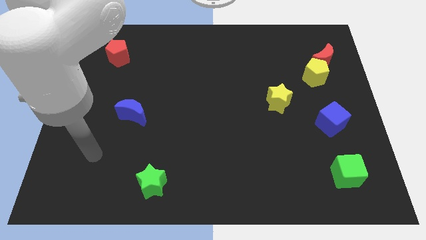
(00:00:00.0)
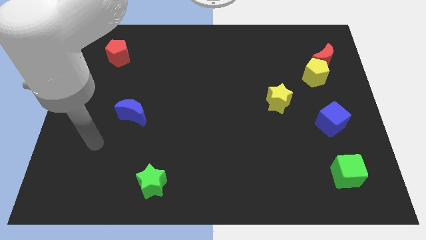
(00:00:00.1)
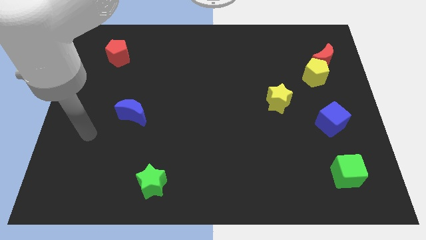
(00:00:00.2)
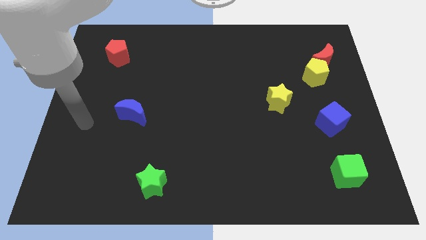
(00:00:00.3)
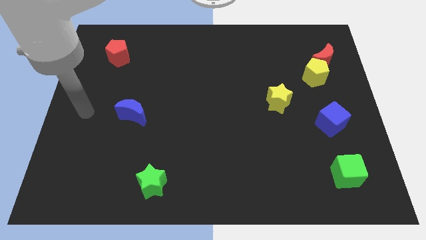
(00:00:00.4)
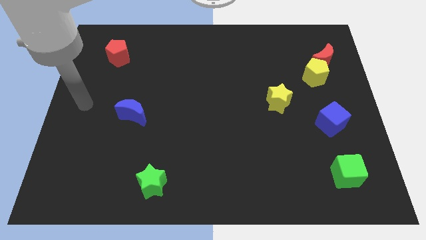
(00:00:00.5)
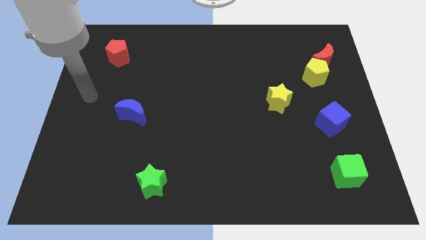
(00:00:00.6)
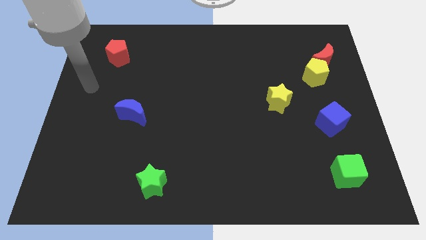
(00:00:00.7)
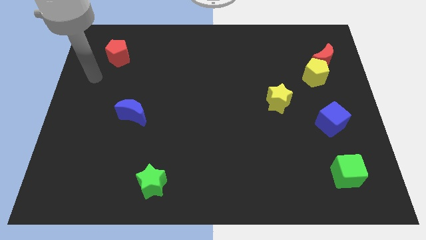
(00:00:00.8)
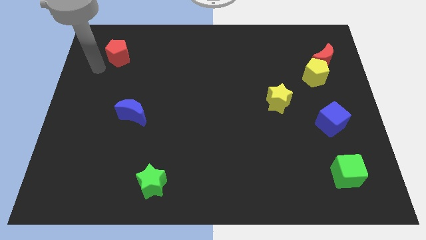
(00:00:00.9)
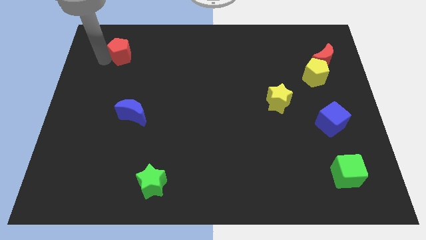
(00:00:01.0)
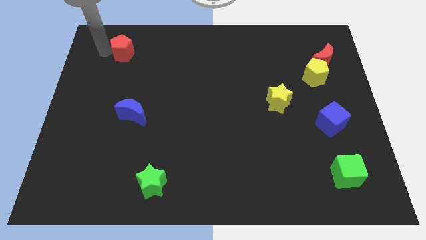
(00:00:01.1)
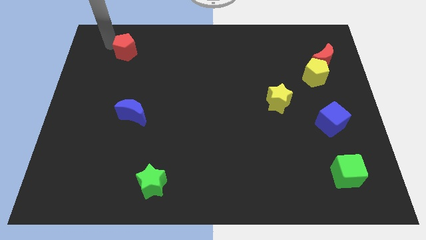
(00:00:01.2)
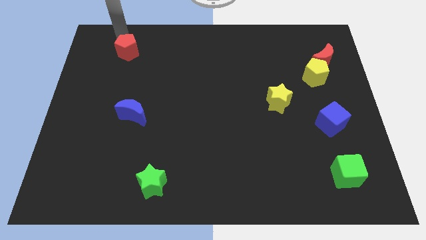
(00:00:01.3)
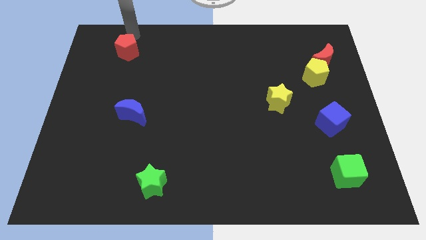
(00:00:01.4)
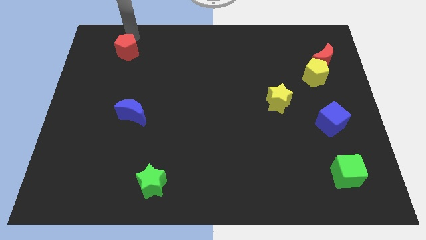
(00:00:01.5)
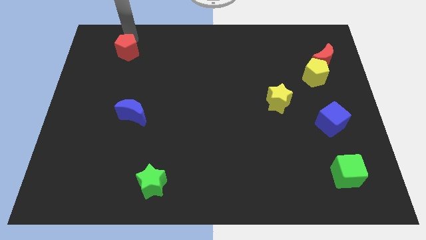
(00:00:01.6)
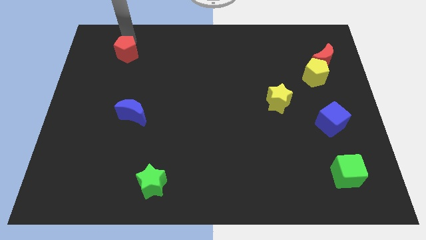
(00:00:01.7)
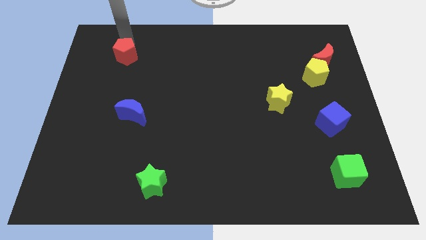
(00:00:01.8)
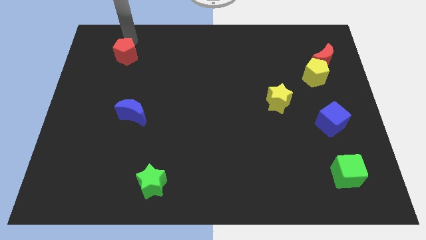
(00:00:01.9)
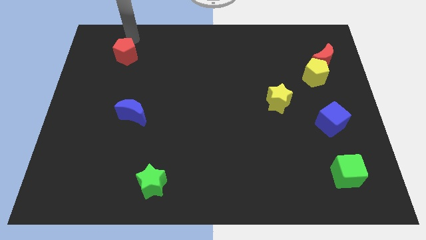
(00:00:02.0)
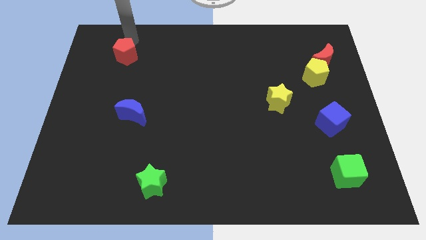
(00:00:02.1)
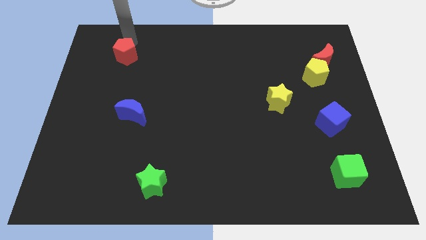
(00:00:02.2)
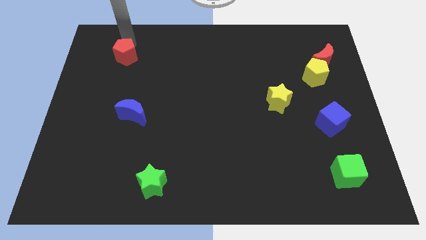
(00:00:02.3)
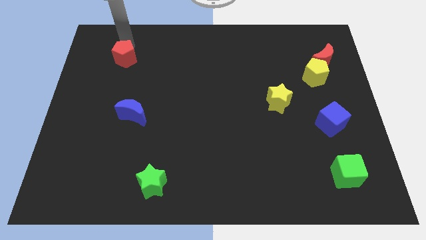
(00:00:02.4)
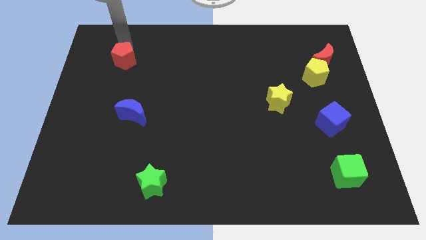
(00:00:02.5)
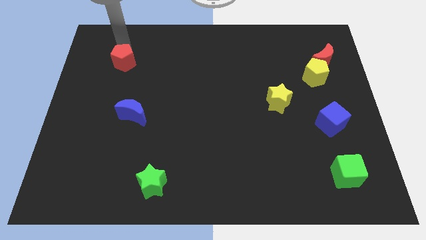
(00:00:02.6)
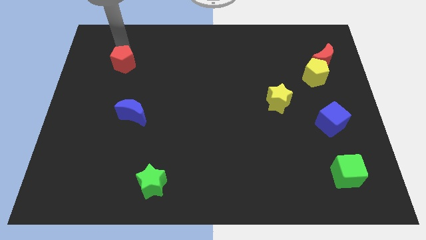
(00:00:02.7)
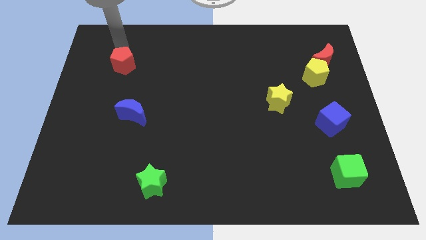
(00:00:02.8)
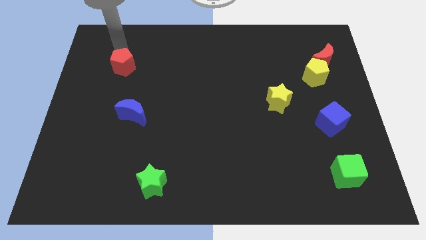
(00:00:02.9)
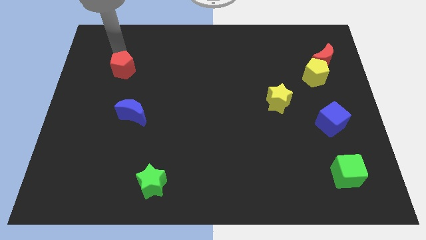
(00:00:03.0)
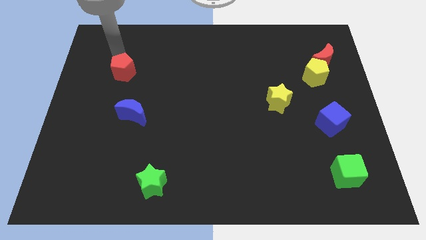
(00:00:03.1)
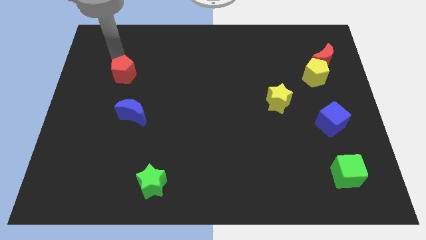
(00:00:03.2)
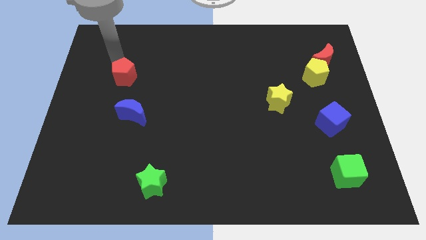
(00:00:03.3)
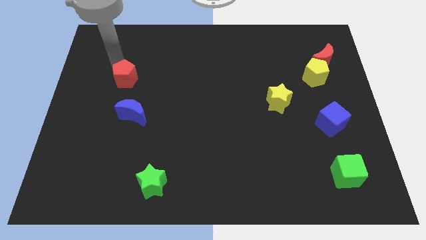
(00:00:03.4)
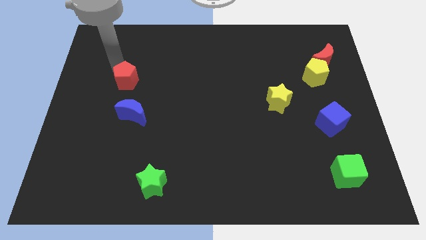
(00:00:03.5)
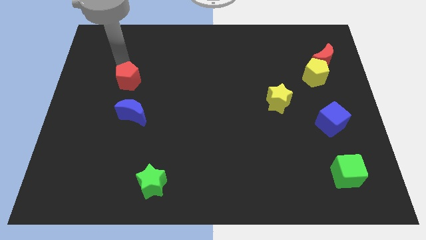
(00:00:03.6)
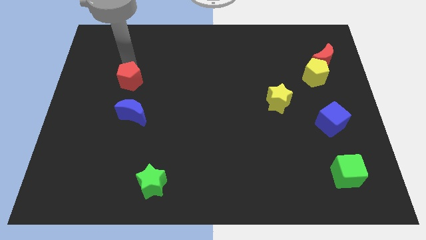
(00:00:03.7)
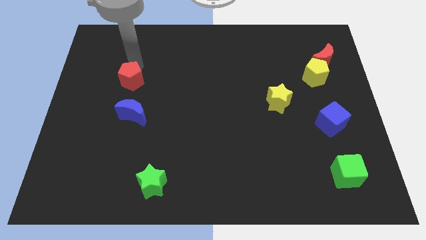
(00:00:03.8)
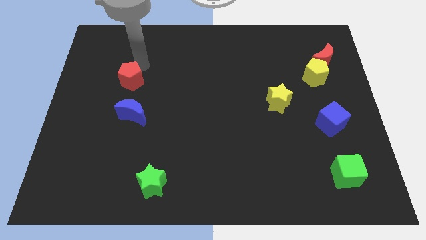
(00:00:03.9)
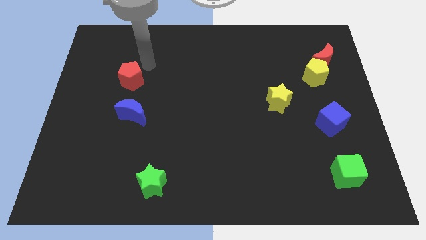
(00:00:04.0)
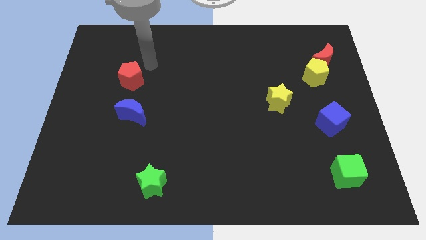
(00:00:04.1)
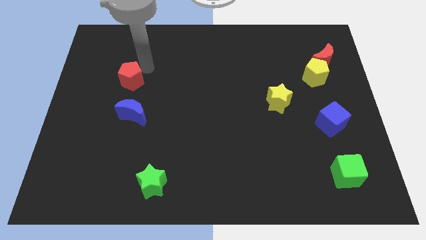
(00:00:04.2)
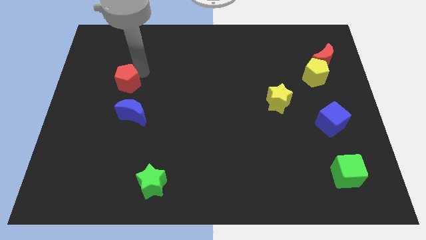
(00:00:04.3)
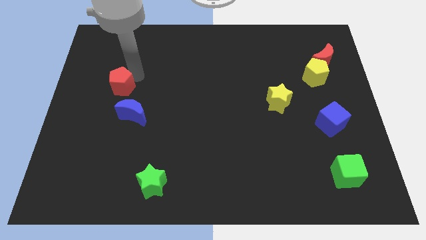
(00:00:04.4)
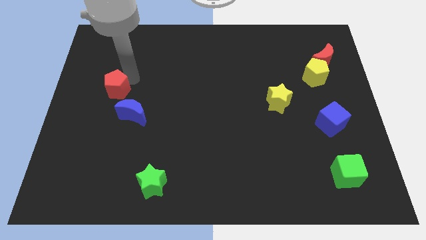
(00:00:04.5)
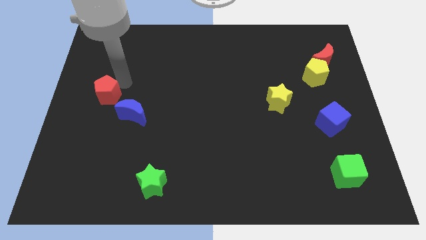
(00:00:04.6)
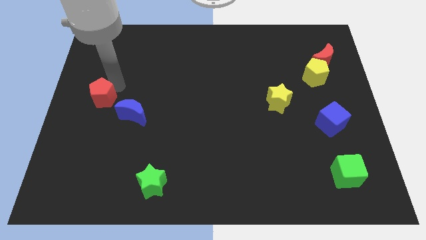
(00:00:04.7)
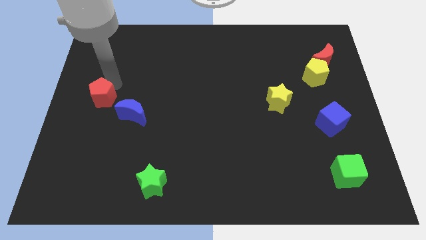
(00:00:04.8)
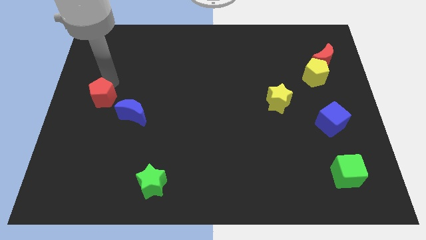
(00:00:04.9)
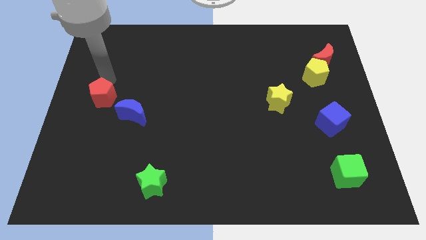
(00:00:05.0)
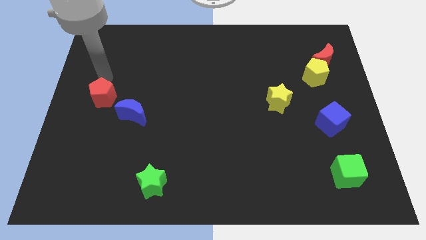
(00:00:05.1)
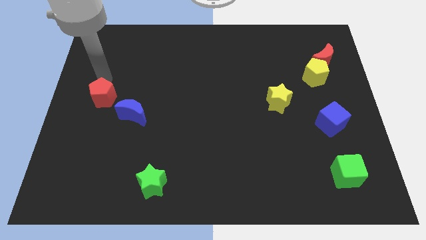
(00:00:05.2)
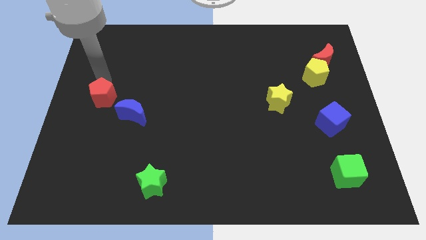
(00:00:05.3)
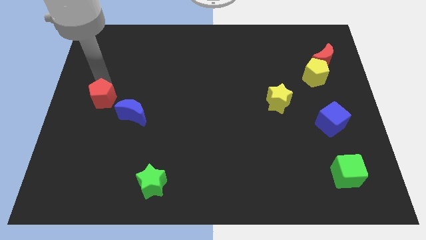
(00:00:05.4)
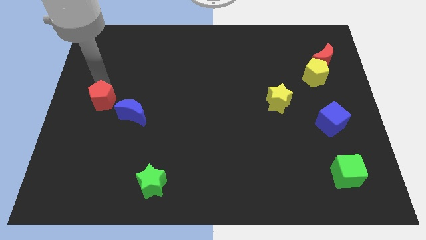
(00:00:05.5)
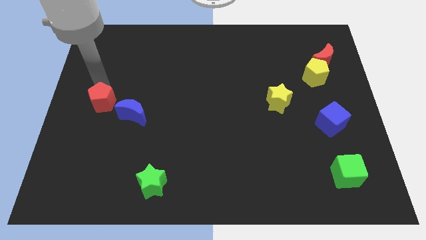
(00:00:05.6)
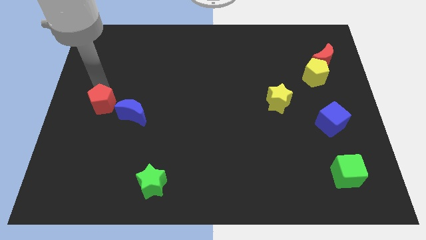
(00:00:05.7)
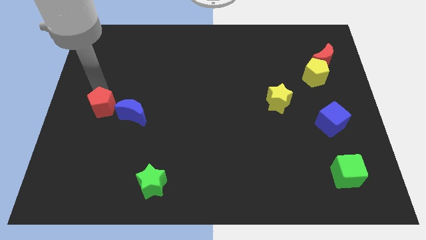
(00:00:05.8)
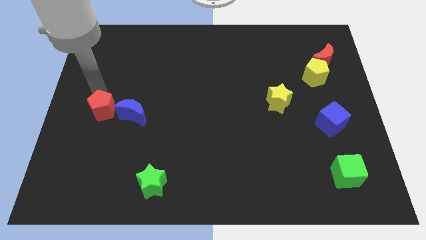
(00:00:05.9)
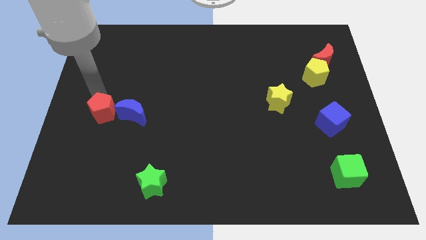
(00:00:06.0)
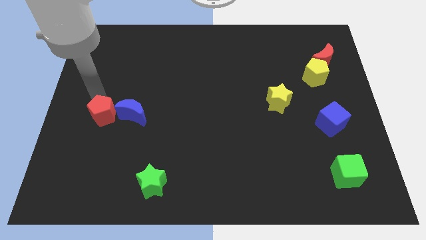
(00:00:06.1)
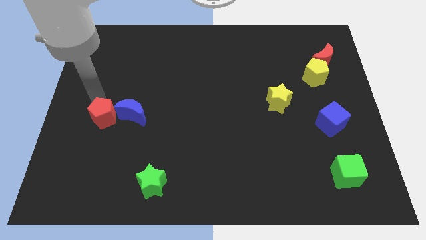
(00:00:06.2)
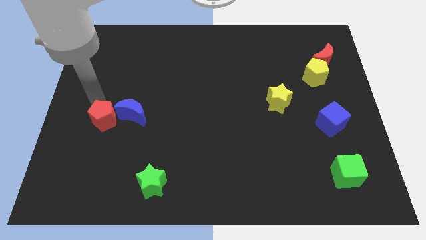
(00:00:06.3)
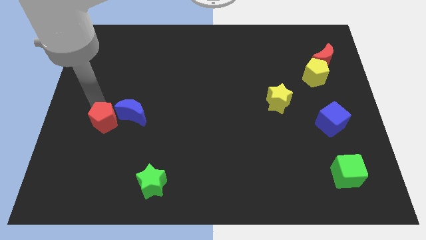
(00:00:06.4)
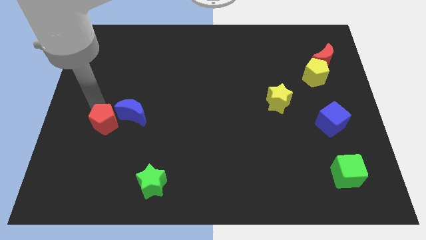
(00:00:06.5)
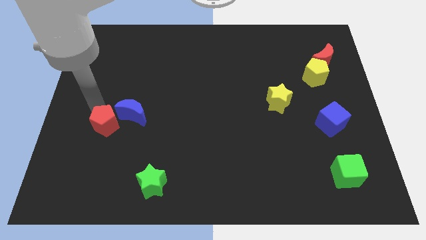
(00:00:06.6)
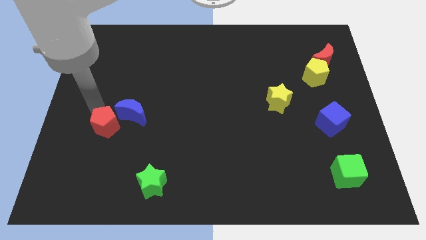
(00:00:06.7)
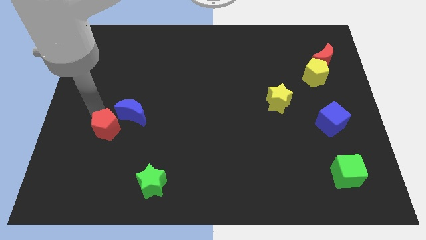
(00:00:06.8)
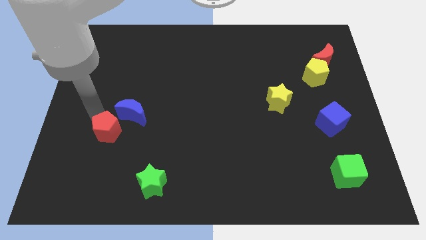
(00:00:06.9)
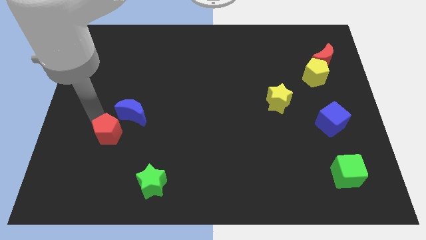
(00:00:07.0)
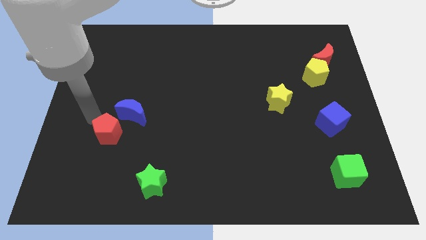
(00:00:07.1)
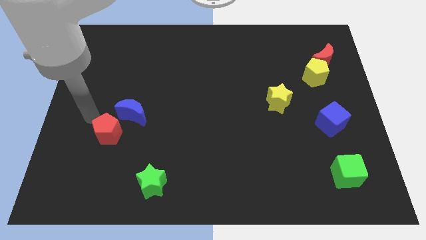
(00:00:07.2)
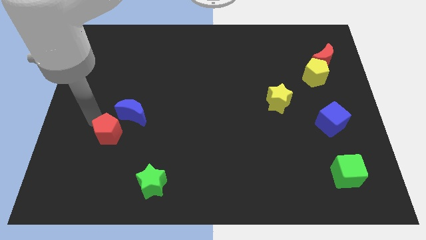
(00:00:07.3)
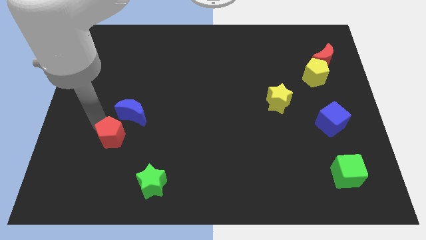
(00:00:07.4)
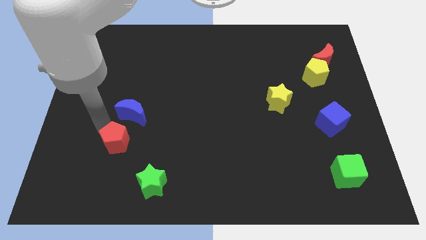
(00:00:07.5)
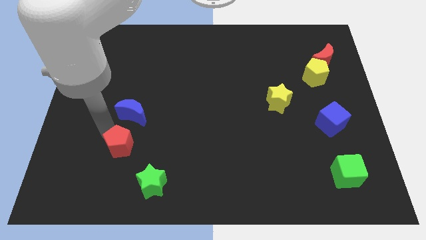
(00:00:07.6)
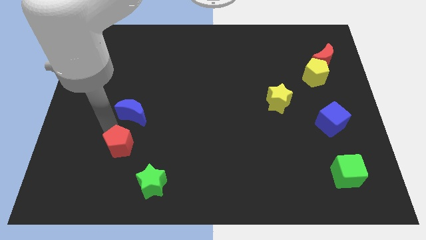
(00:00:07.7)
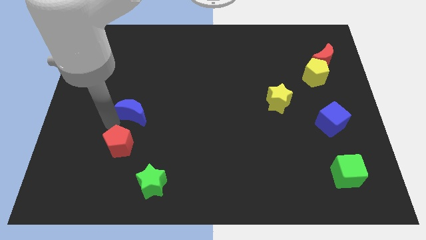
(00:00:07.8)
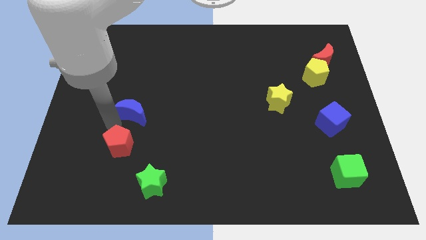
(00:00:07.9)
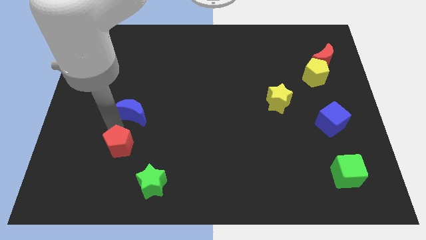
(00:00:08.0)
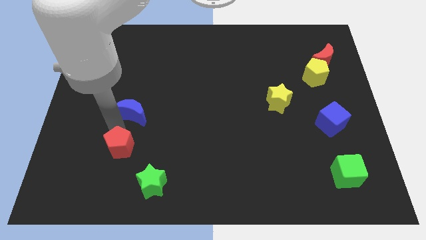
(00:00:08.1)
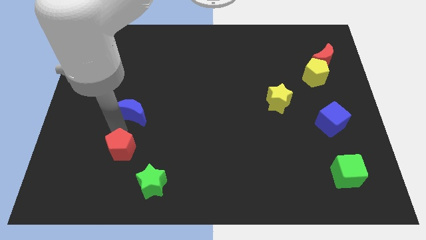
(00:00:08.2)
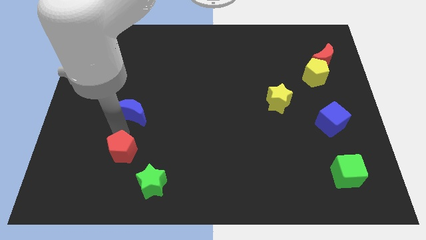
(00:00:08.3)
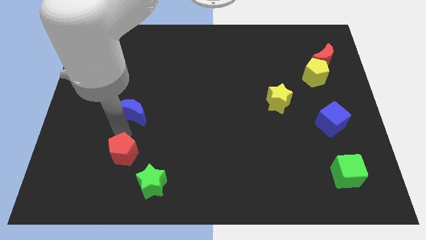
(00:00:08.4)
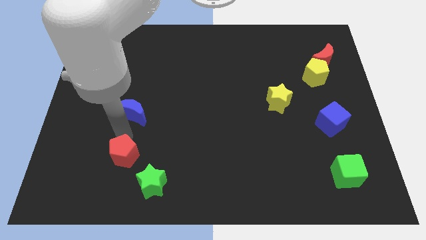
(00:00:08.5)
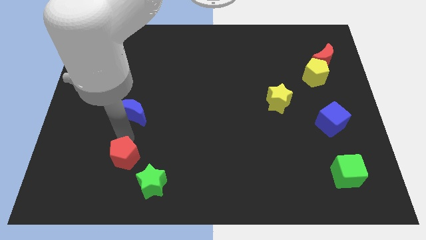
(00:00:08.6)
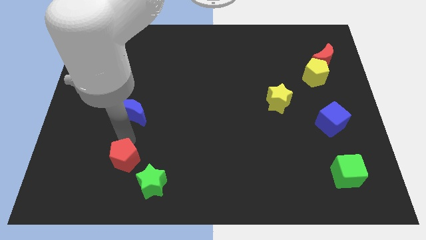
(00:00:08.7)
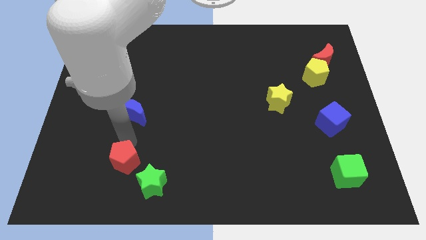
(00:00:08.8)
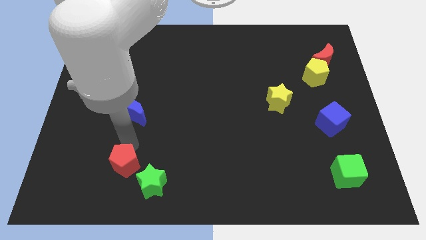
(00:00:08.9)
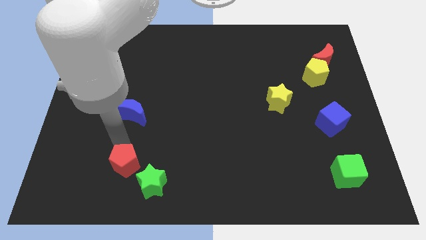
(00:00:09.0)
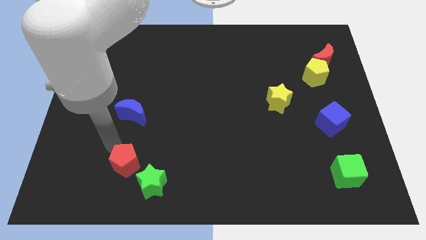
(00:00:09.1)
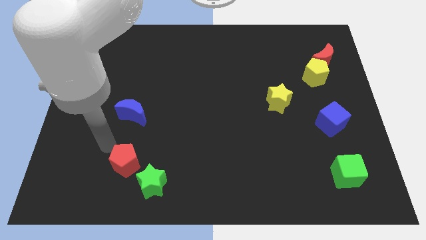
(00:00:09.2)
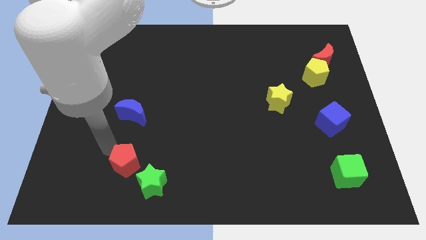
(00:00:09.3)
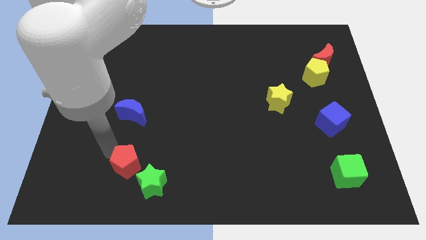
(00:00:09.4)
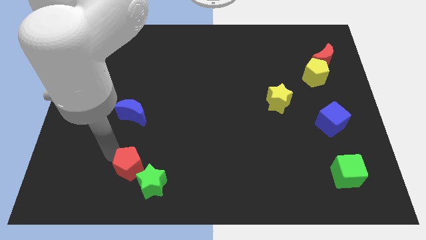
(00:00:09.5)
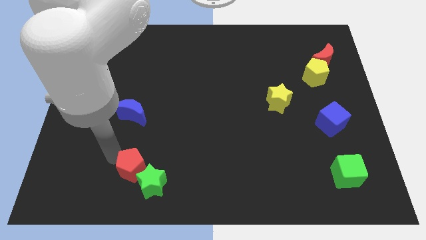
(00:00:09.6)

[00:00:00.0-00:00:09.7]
push the red pentagon to the green star
